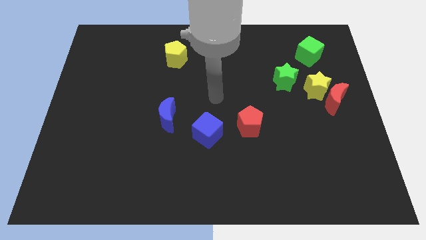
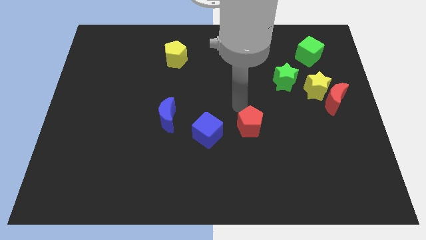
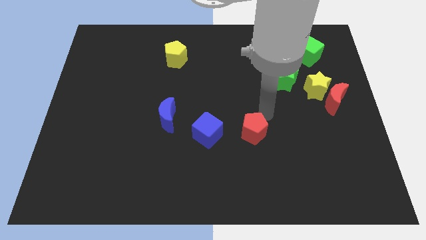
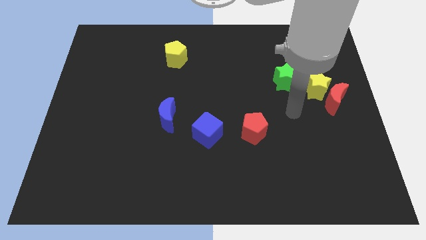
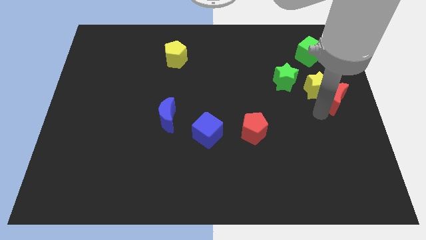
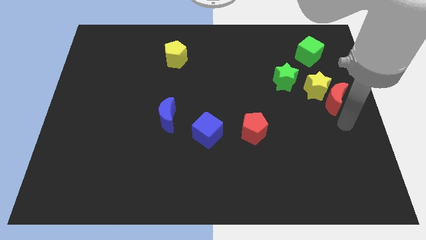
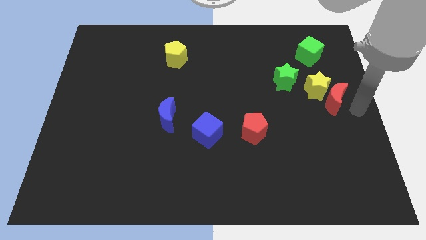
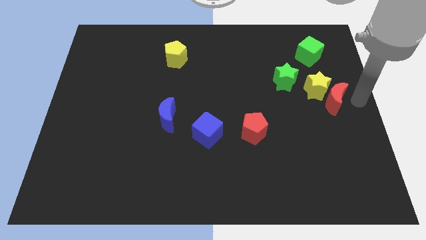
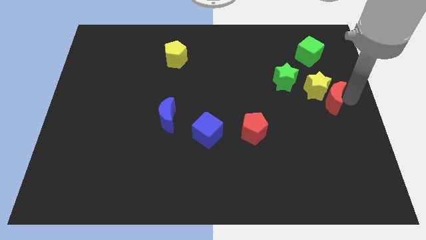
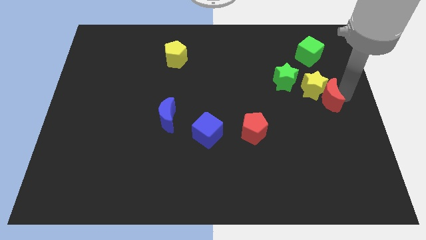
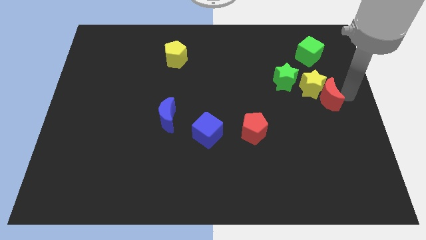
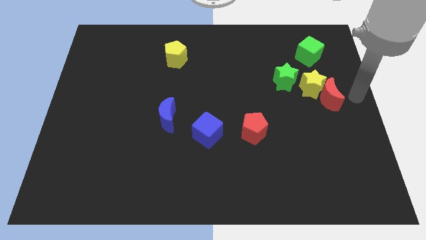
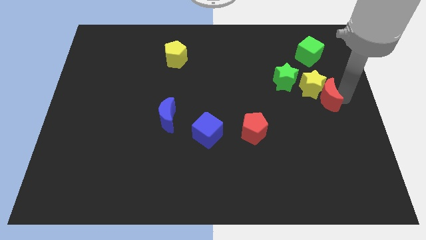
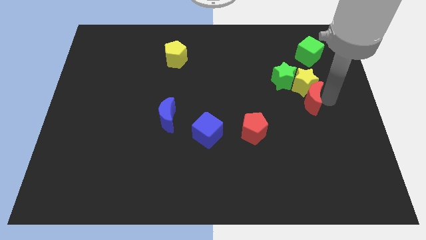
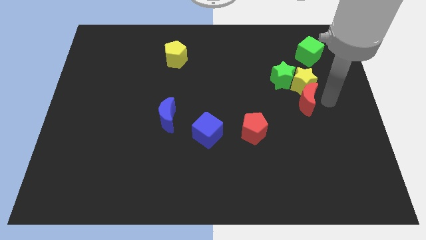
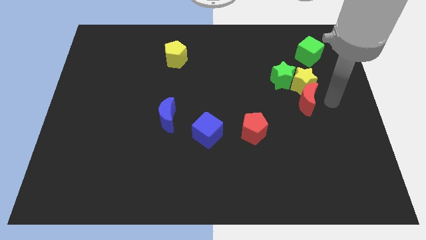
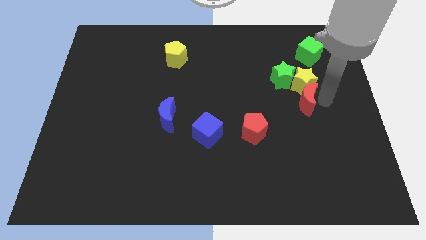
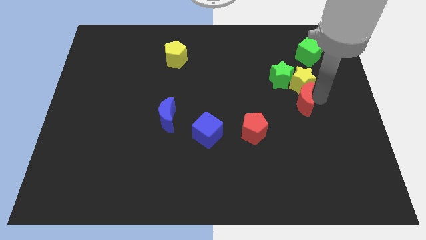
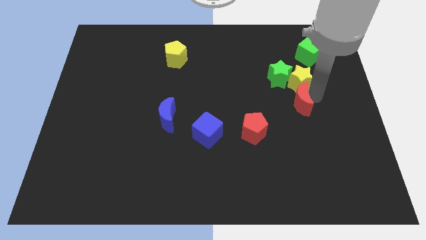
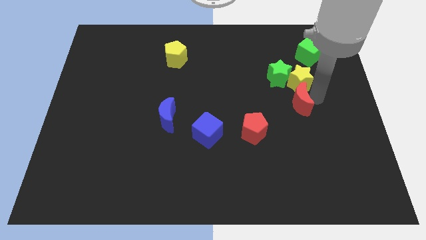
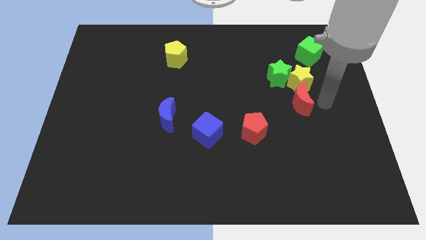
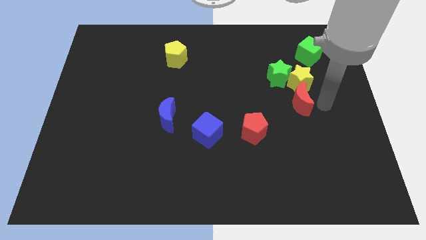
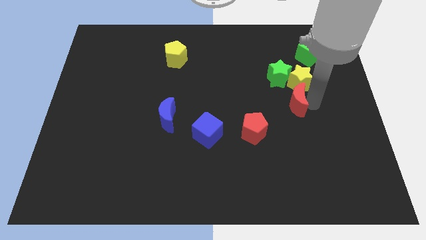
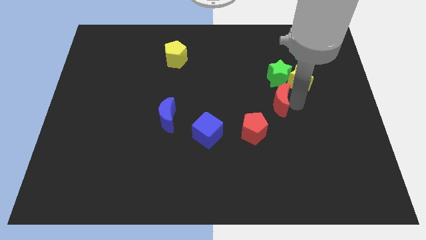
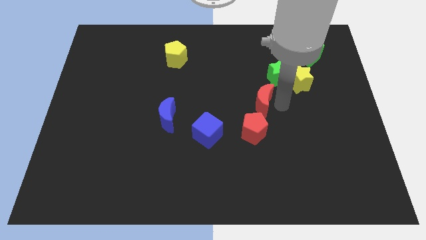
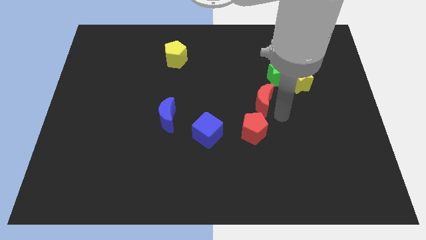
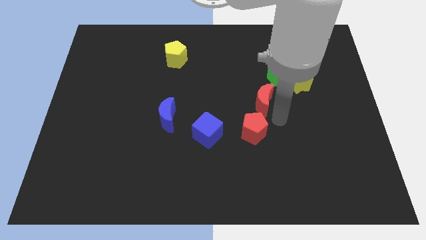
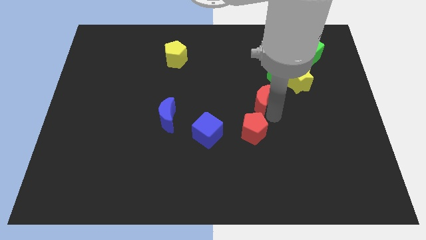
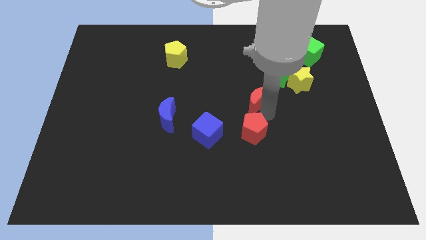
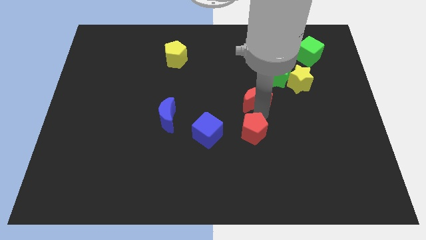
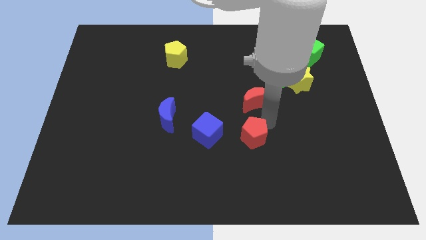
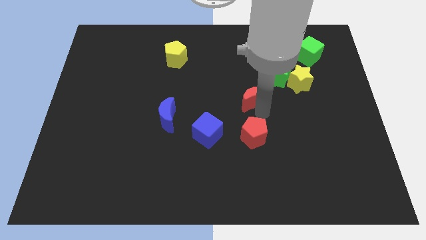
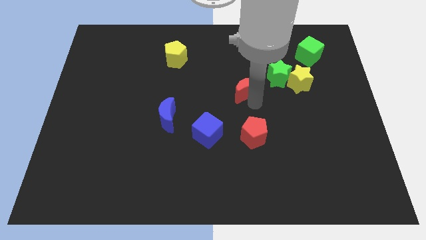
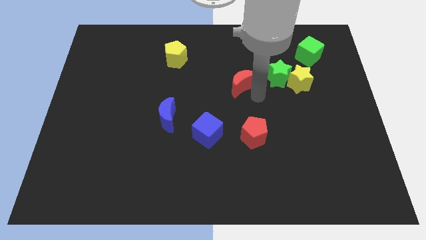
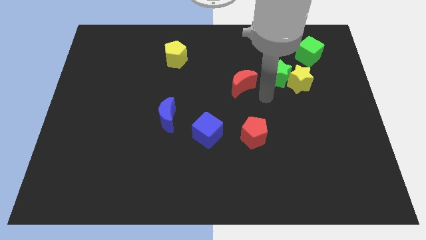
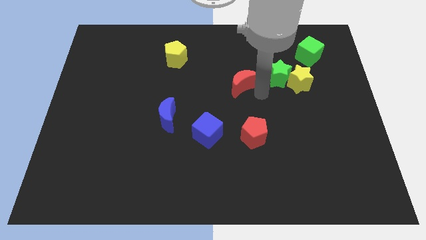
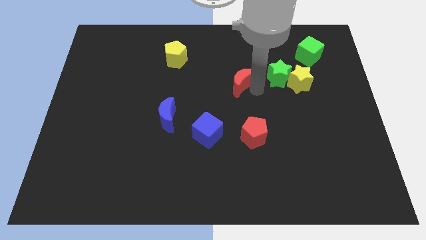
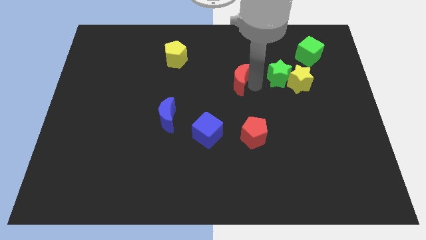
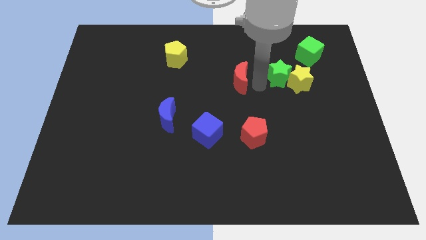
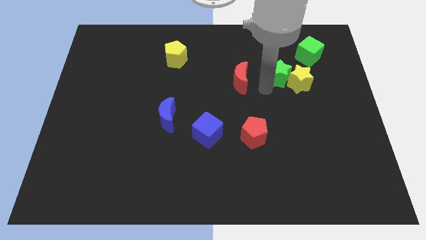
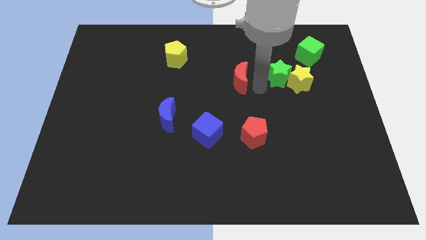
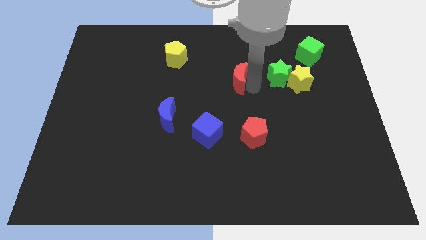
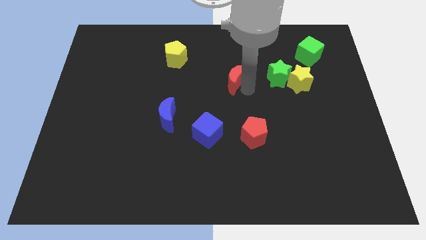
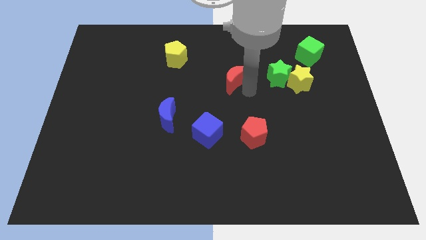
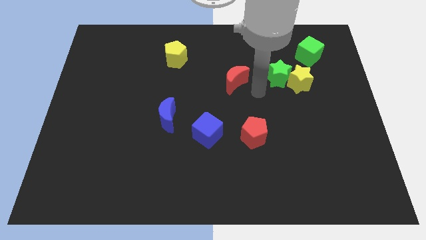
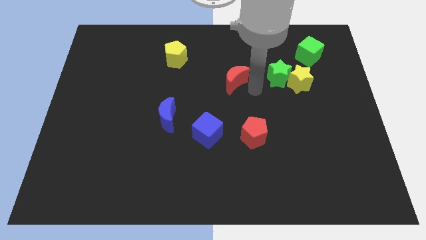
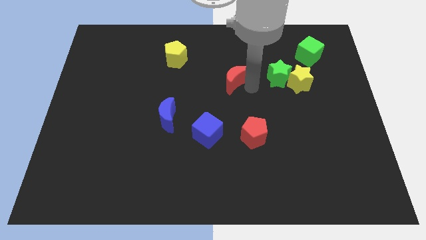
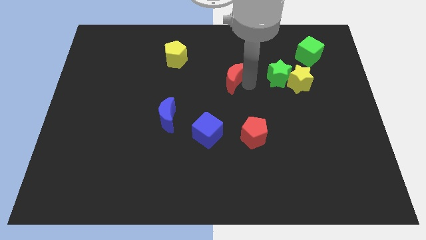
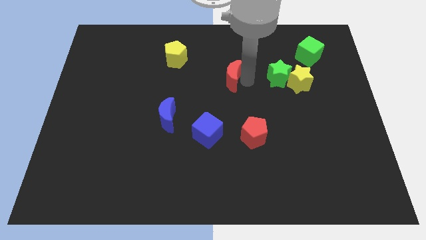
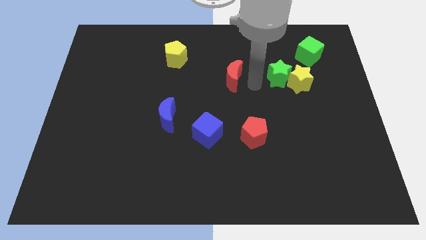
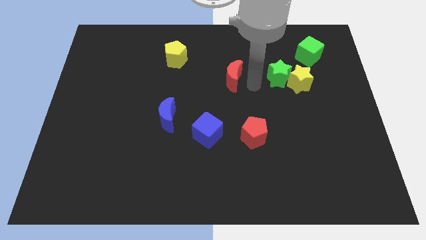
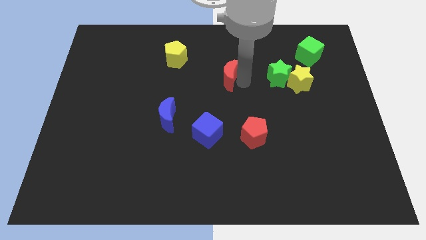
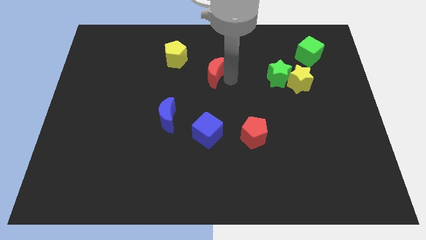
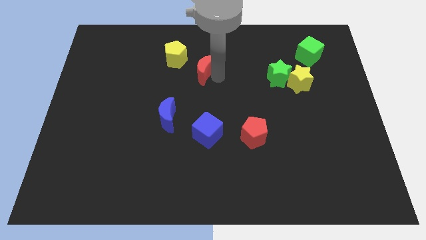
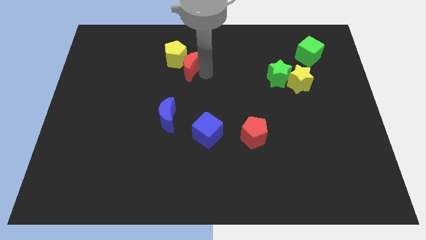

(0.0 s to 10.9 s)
move the red moon towards the yellow pentagon

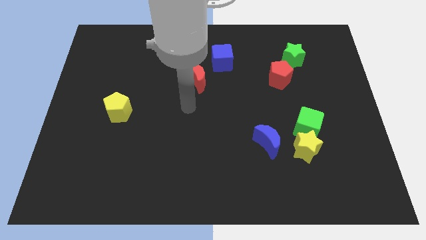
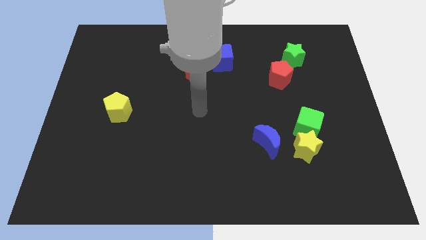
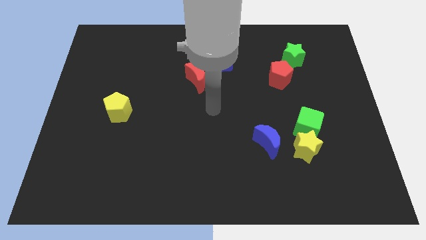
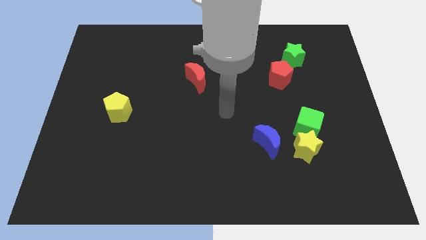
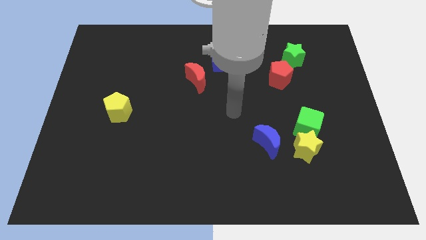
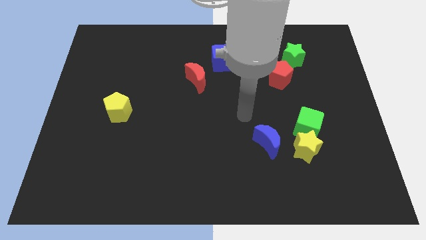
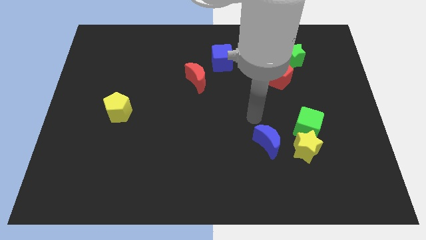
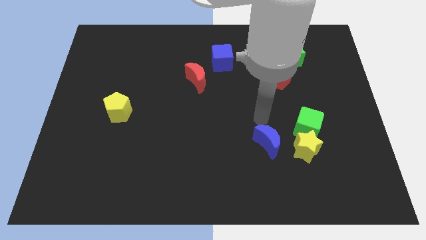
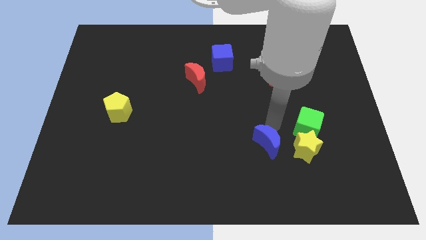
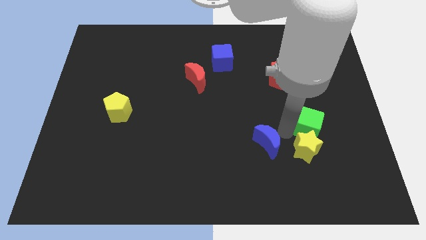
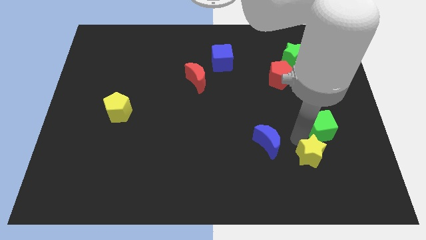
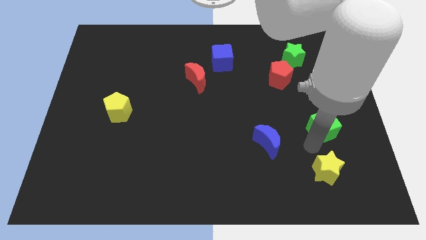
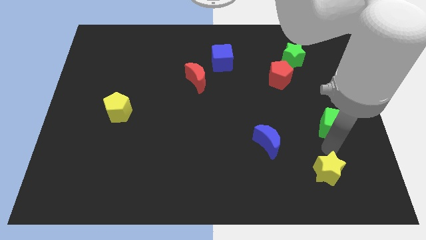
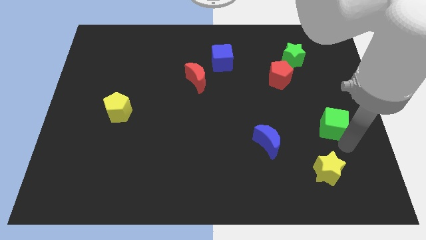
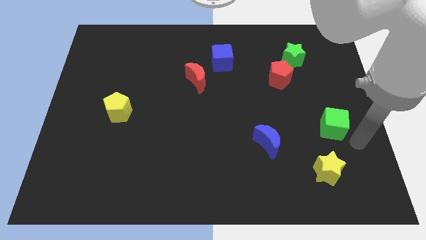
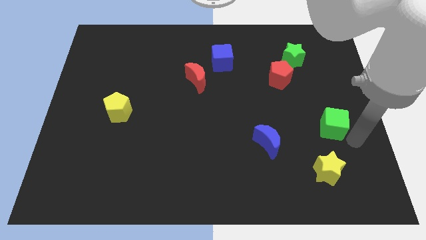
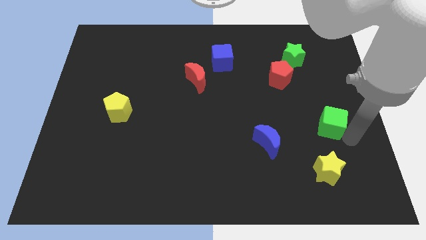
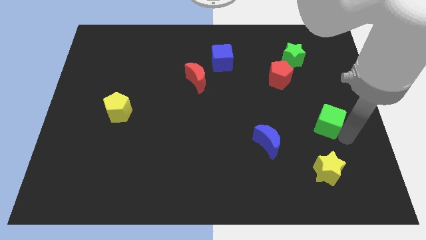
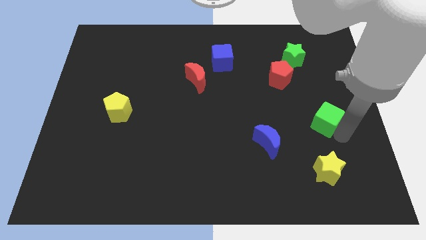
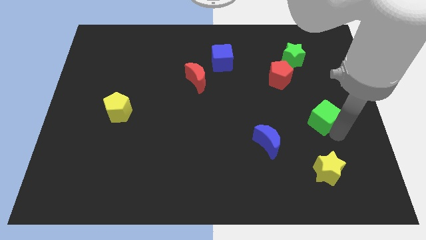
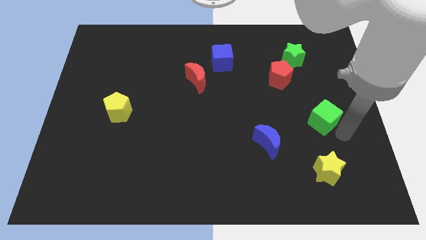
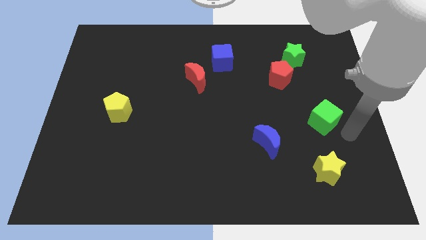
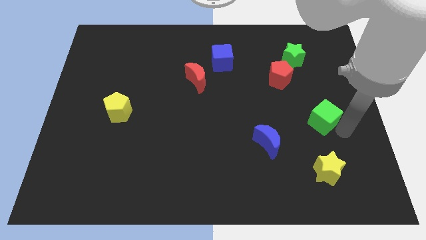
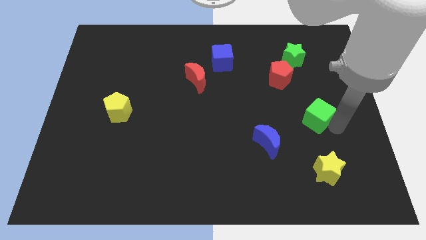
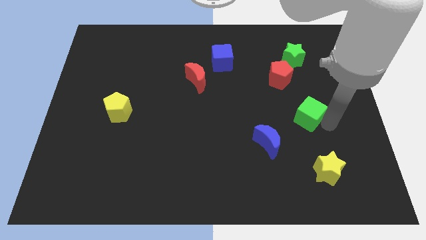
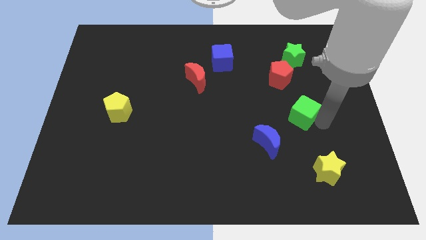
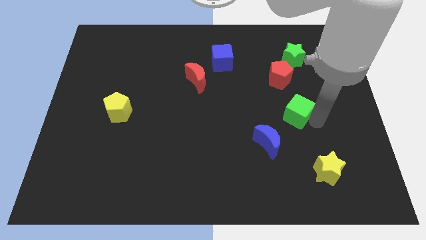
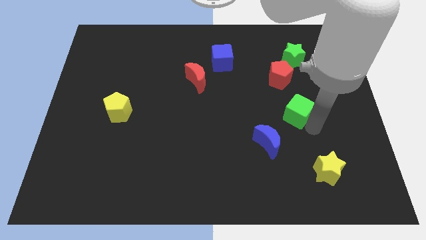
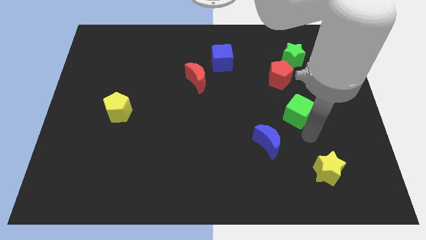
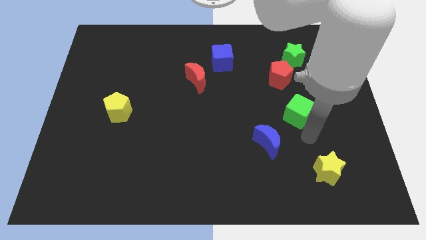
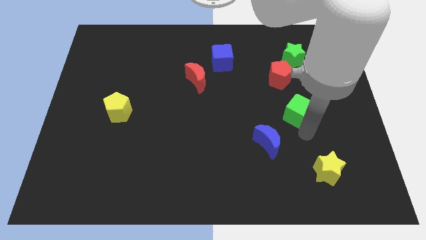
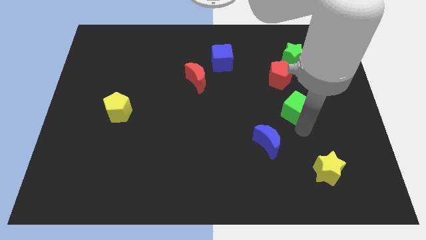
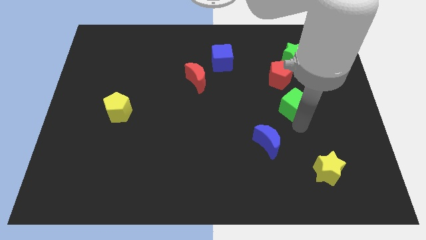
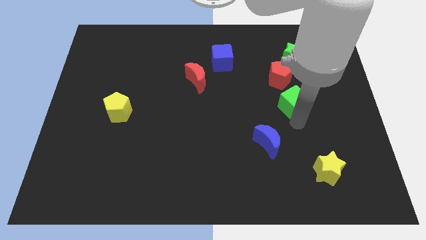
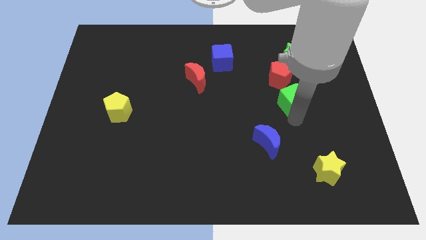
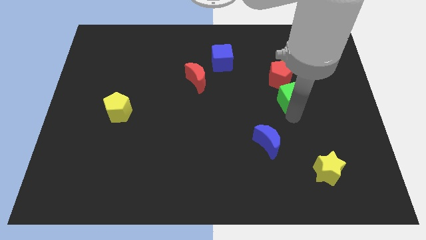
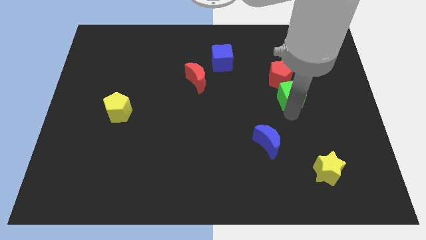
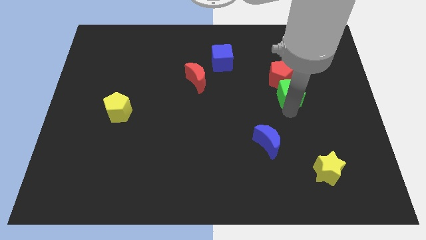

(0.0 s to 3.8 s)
move the green cube to the red pentagon
